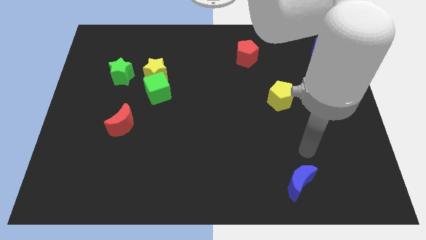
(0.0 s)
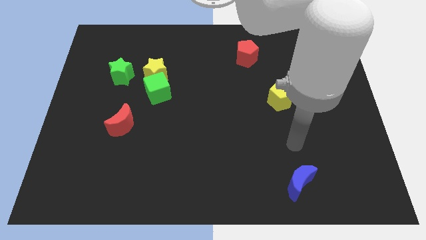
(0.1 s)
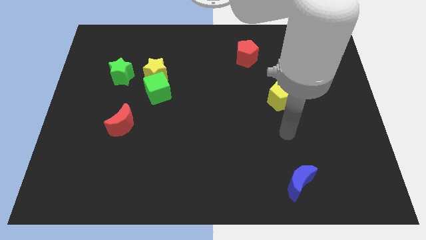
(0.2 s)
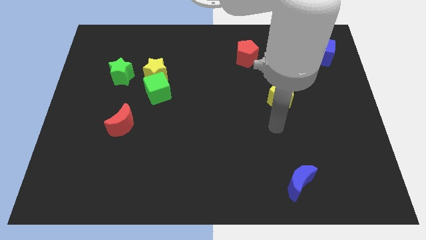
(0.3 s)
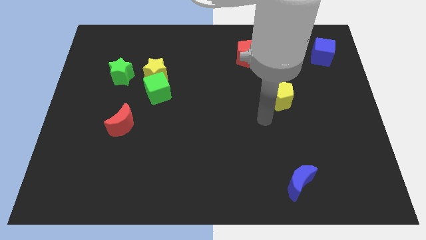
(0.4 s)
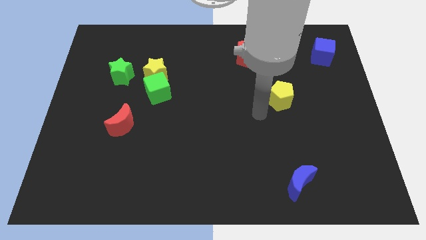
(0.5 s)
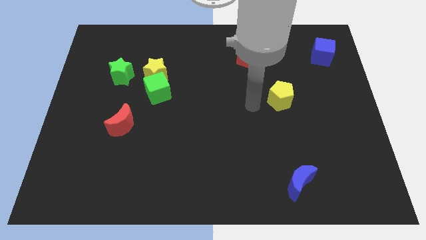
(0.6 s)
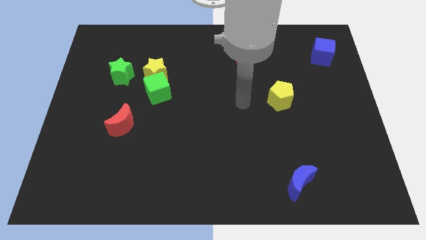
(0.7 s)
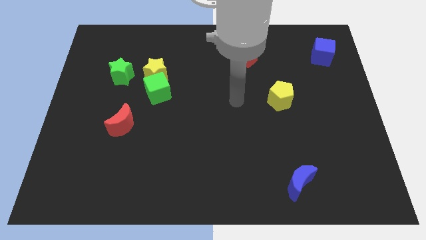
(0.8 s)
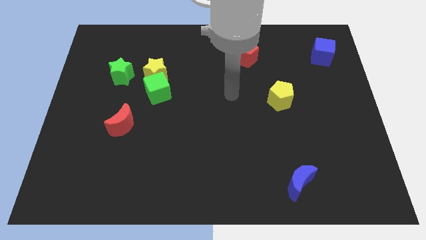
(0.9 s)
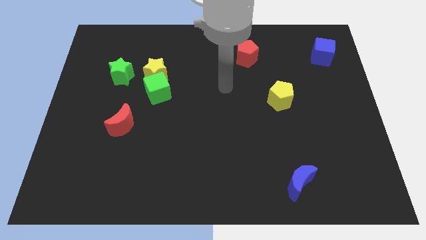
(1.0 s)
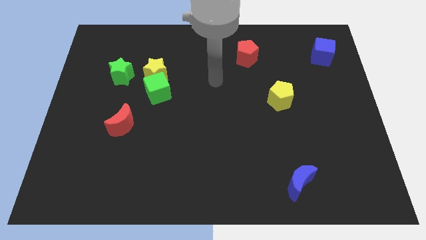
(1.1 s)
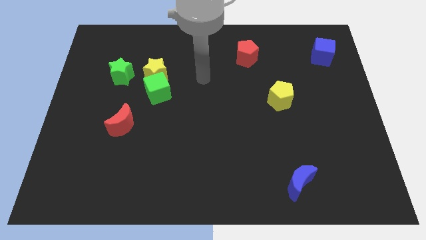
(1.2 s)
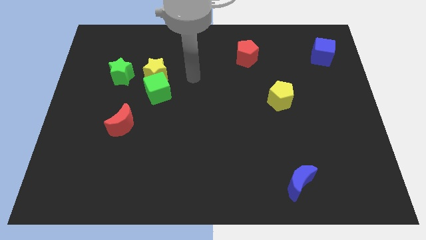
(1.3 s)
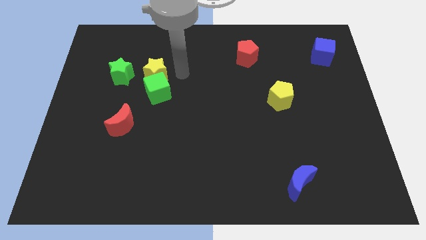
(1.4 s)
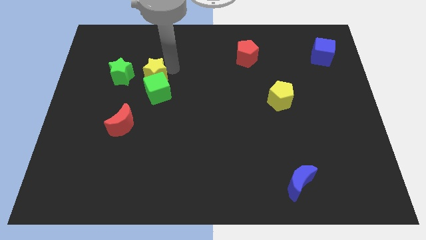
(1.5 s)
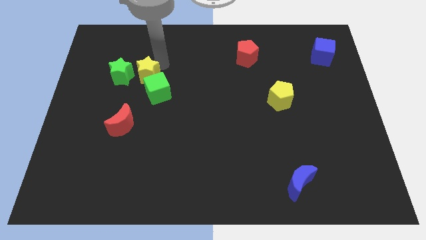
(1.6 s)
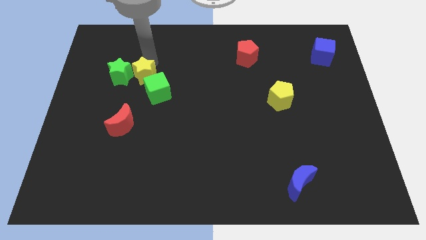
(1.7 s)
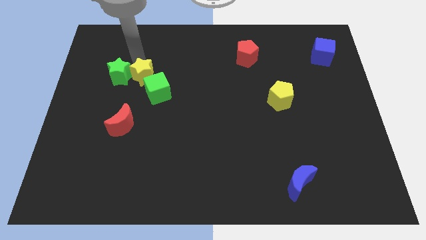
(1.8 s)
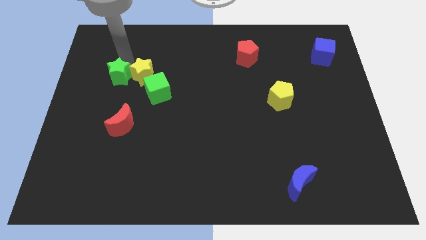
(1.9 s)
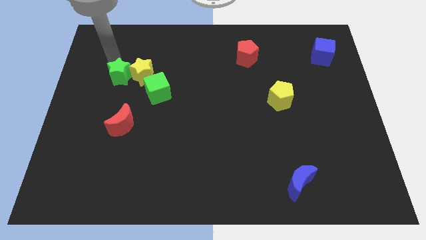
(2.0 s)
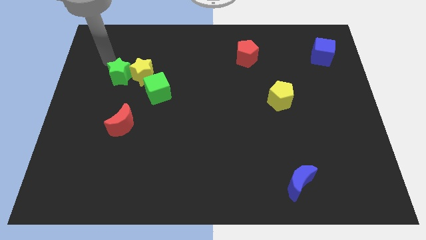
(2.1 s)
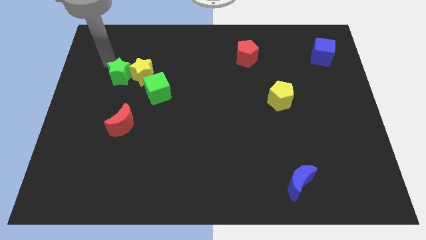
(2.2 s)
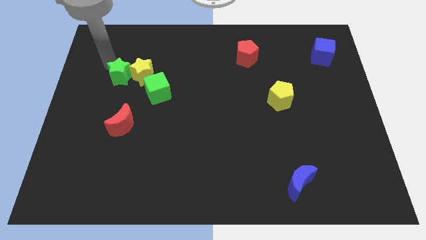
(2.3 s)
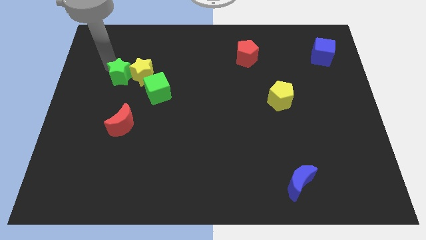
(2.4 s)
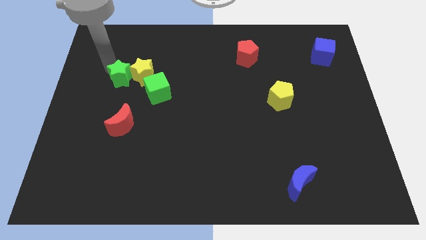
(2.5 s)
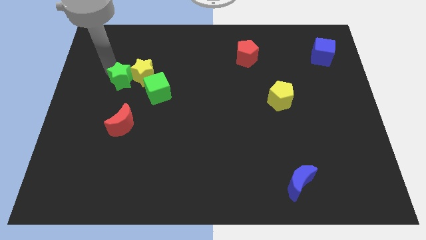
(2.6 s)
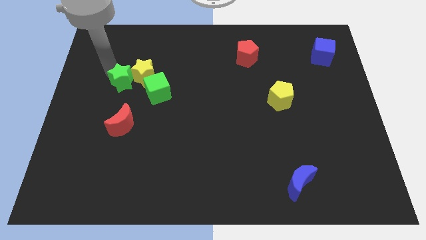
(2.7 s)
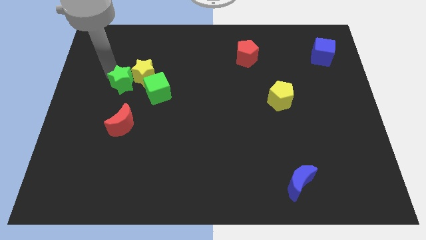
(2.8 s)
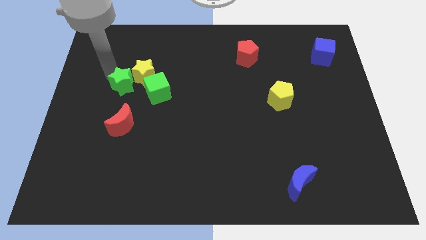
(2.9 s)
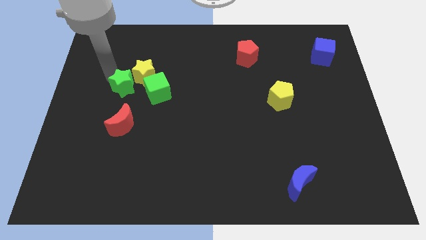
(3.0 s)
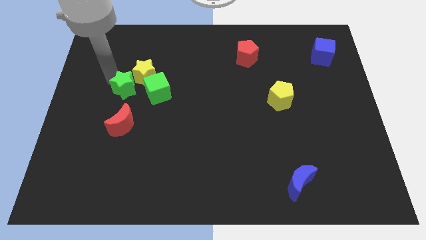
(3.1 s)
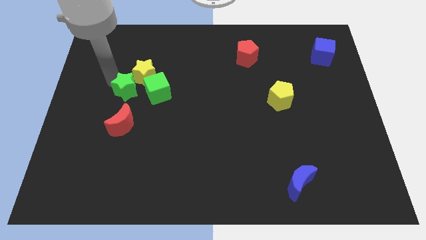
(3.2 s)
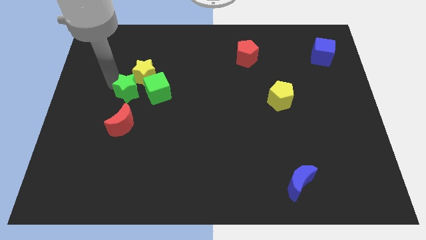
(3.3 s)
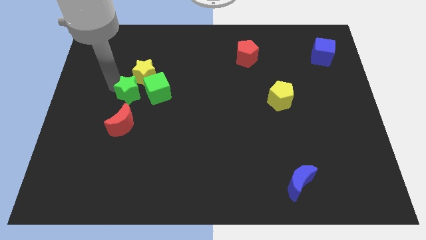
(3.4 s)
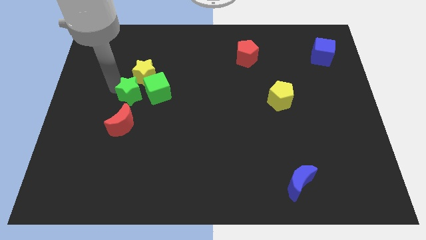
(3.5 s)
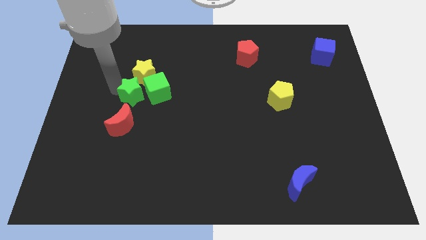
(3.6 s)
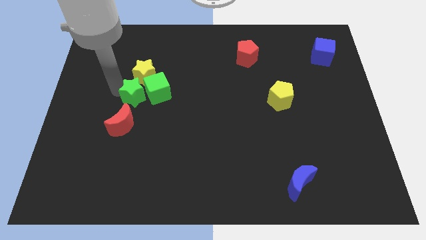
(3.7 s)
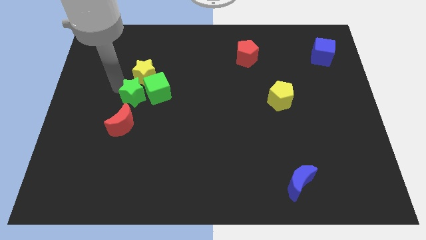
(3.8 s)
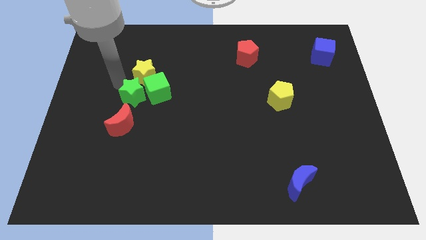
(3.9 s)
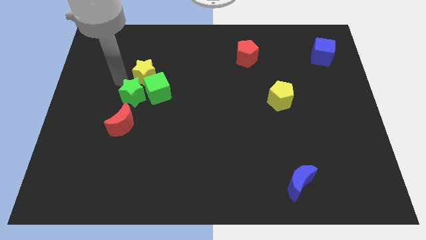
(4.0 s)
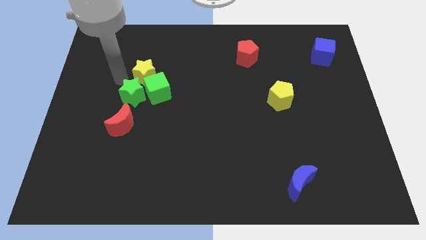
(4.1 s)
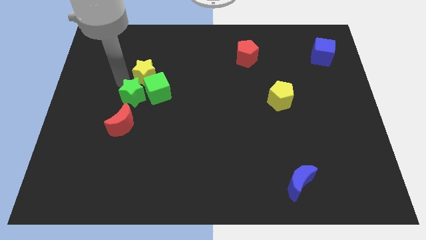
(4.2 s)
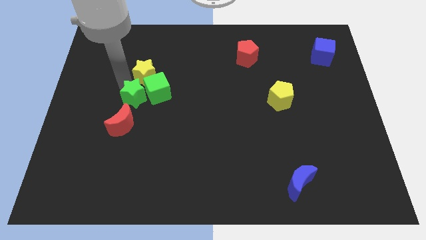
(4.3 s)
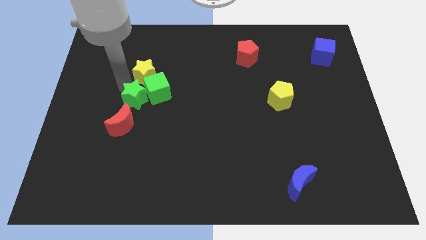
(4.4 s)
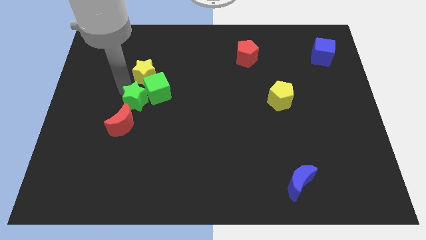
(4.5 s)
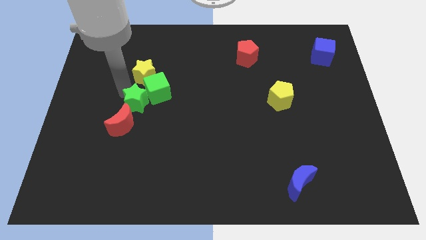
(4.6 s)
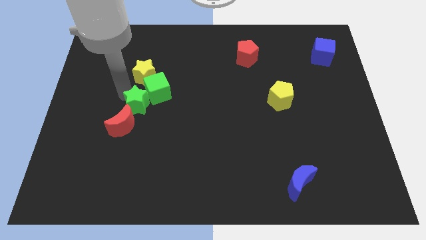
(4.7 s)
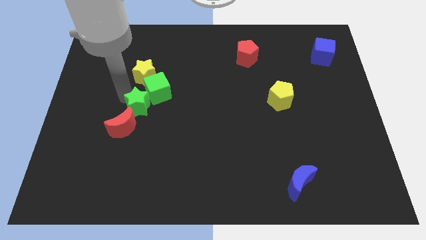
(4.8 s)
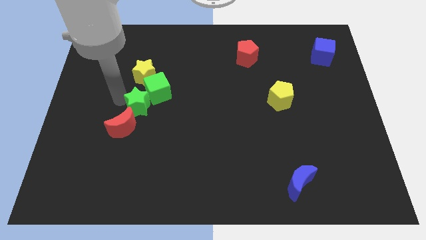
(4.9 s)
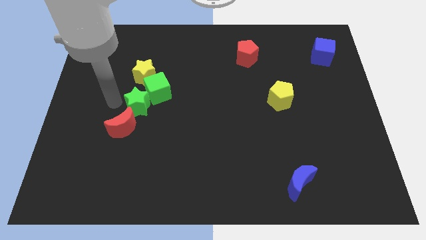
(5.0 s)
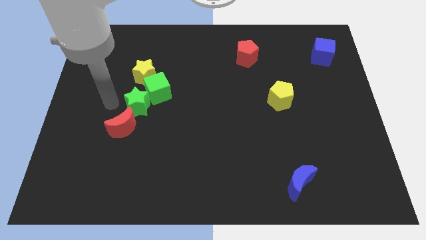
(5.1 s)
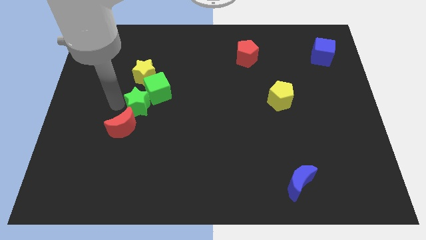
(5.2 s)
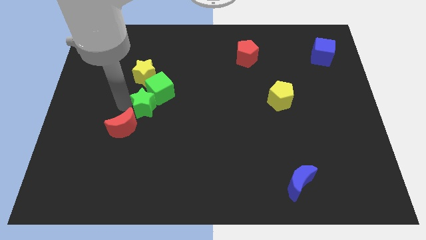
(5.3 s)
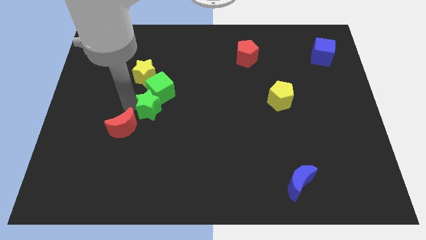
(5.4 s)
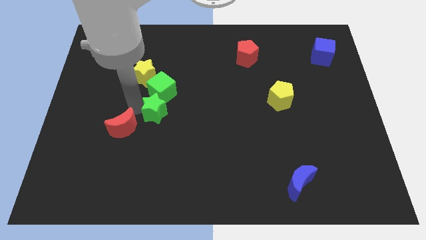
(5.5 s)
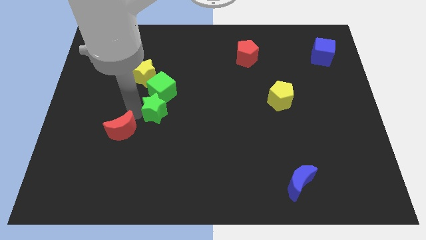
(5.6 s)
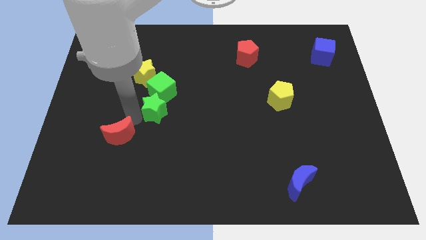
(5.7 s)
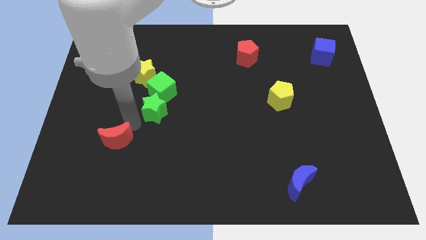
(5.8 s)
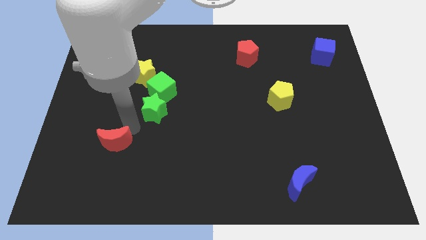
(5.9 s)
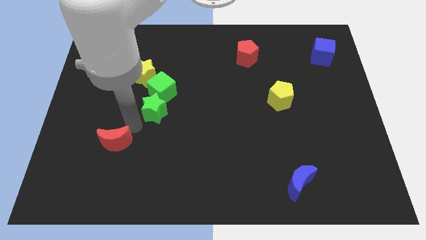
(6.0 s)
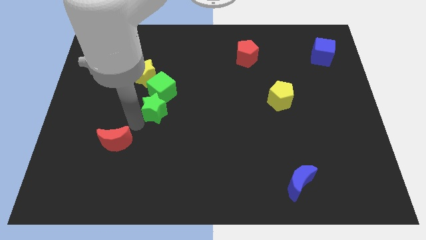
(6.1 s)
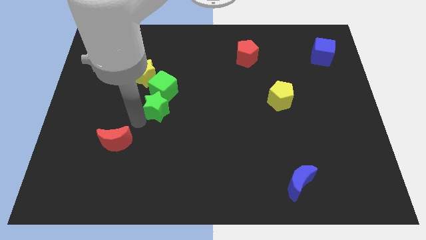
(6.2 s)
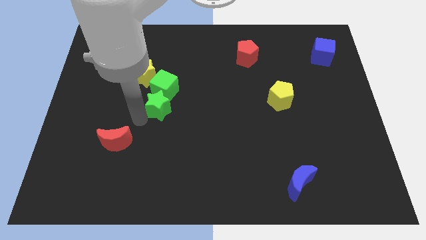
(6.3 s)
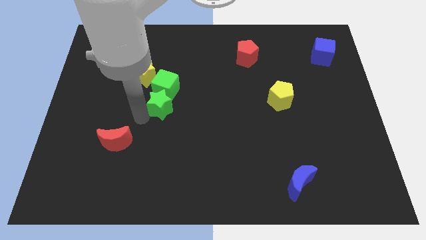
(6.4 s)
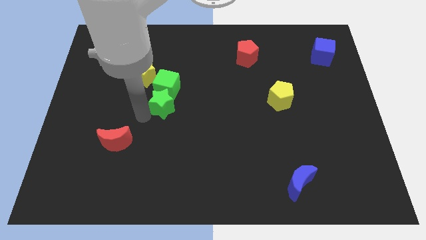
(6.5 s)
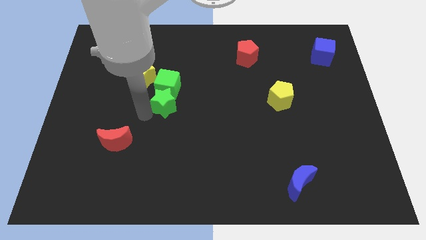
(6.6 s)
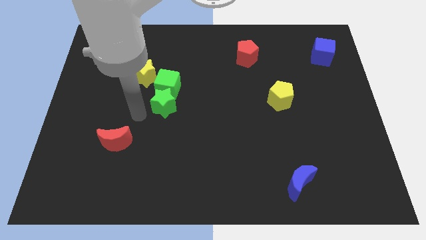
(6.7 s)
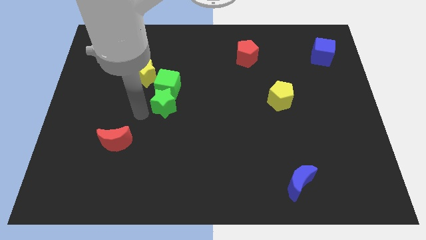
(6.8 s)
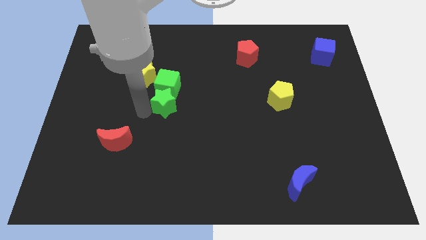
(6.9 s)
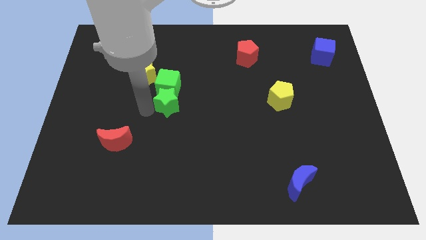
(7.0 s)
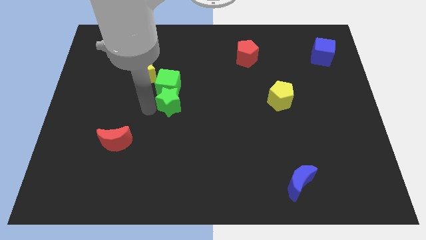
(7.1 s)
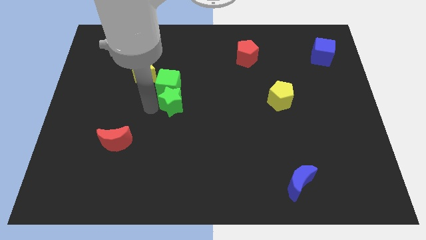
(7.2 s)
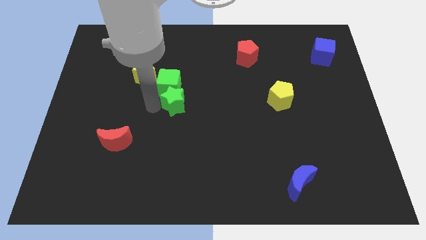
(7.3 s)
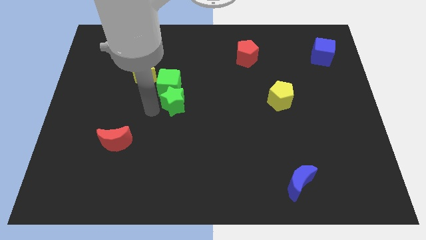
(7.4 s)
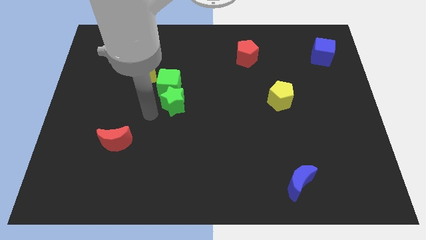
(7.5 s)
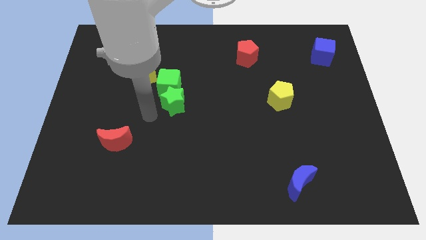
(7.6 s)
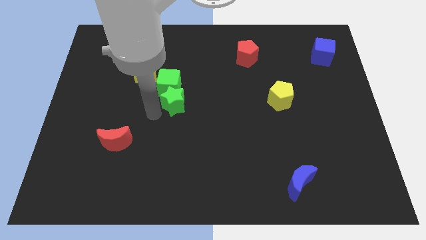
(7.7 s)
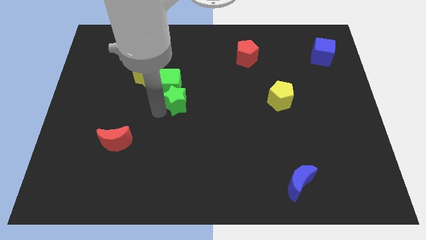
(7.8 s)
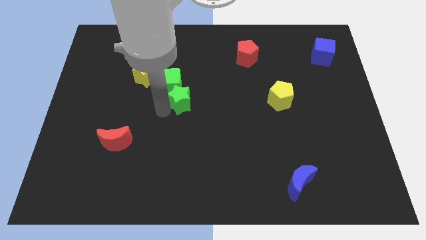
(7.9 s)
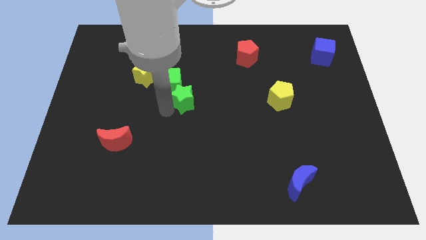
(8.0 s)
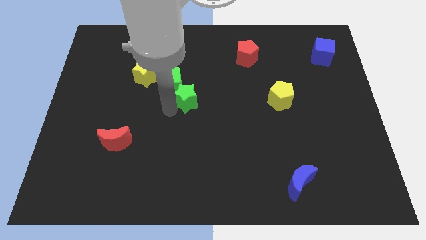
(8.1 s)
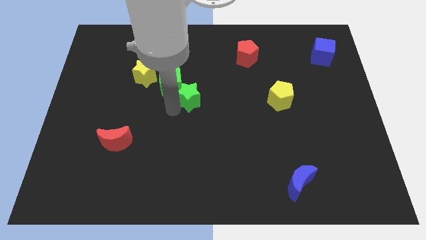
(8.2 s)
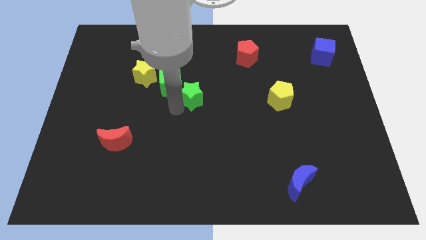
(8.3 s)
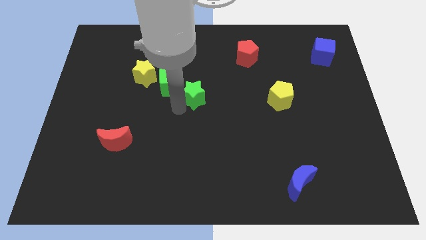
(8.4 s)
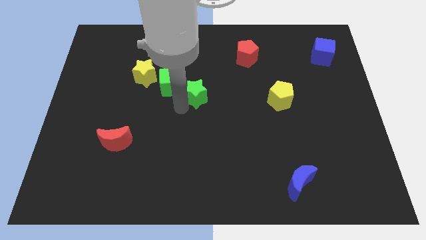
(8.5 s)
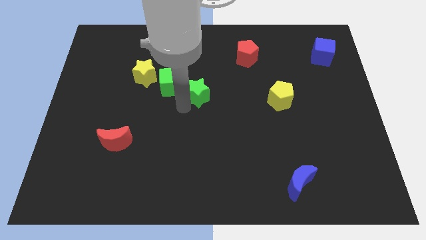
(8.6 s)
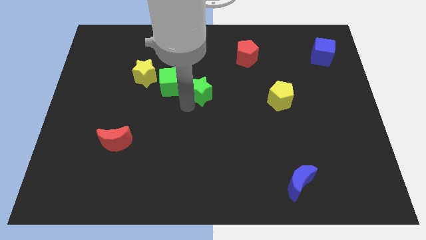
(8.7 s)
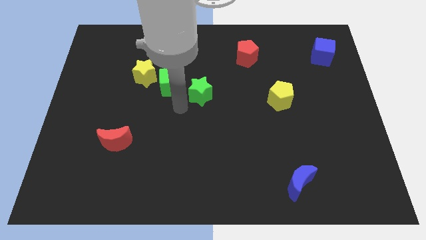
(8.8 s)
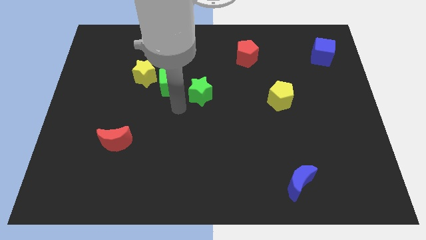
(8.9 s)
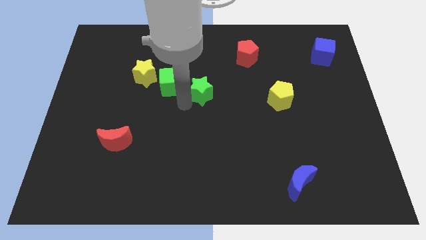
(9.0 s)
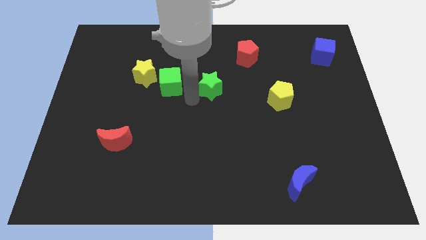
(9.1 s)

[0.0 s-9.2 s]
move the green star to the right
